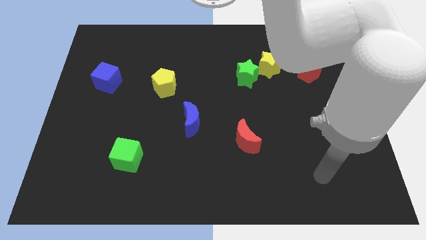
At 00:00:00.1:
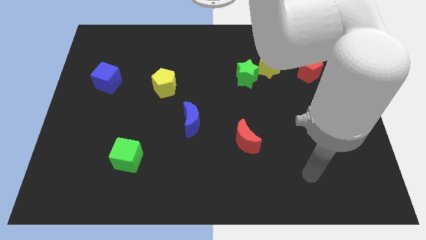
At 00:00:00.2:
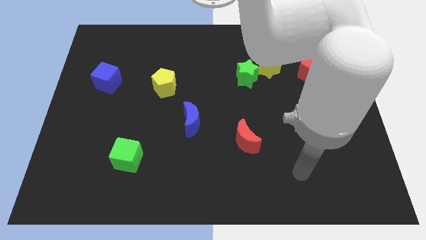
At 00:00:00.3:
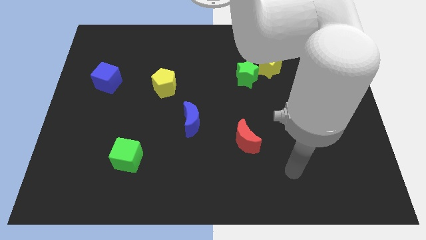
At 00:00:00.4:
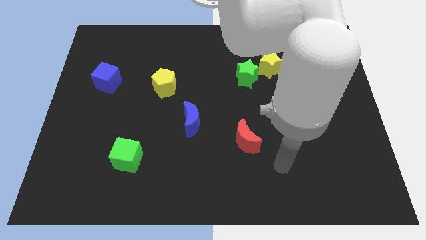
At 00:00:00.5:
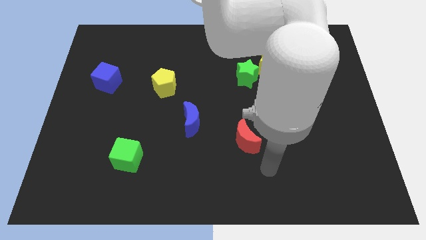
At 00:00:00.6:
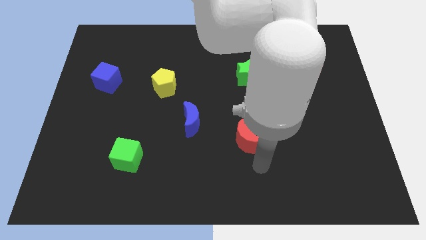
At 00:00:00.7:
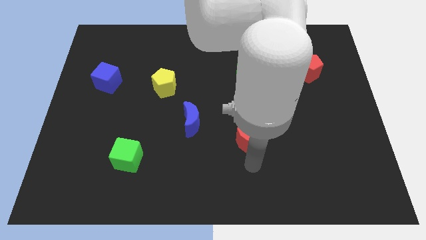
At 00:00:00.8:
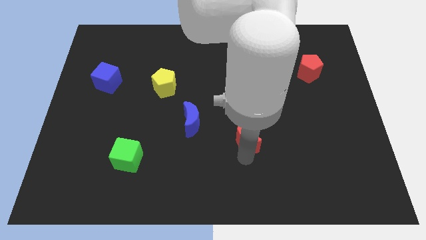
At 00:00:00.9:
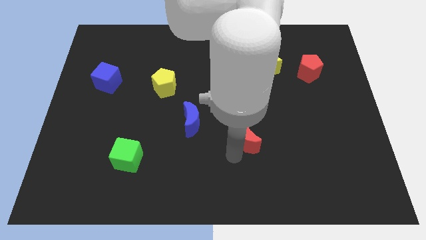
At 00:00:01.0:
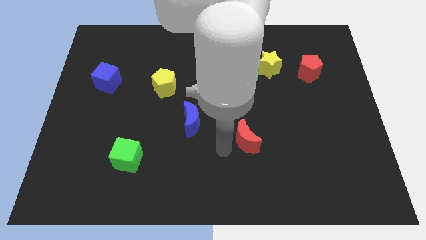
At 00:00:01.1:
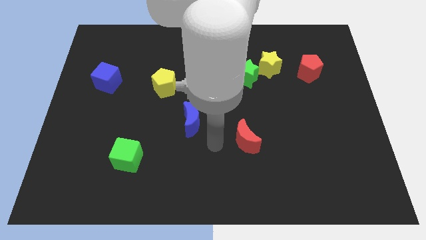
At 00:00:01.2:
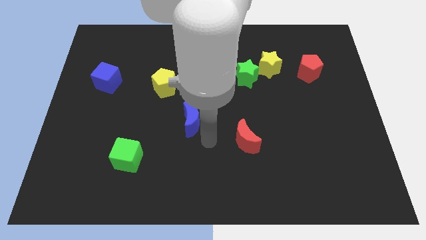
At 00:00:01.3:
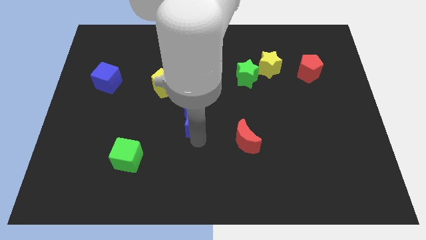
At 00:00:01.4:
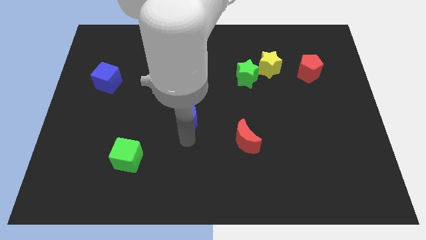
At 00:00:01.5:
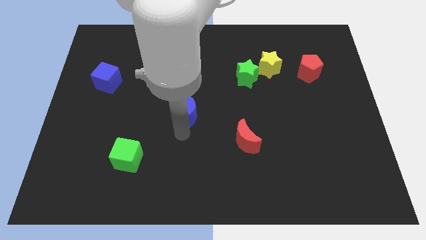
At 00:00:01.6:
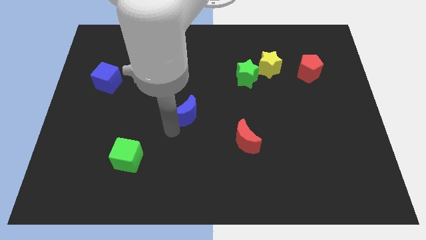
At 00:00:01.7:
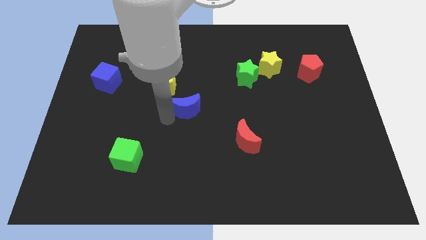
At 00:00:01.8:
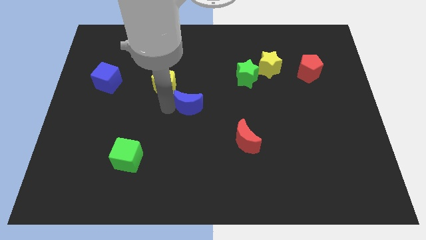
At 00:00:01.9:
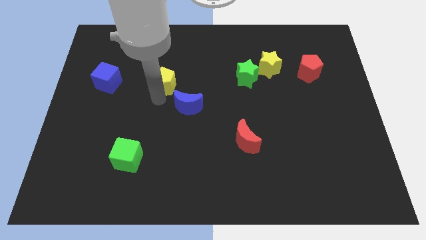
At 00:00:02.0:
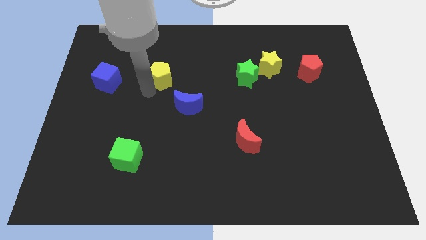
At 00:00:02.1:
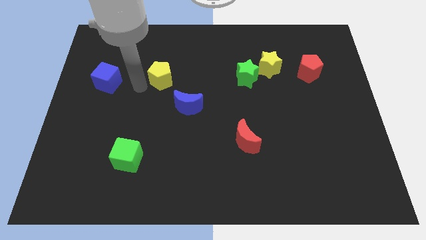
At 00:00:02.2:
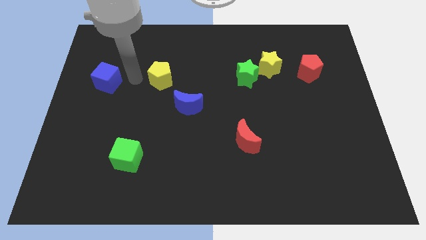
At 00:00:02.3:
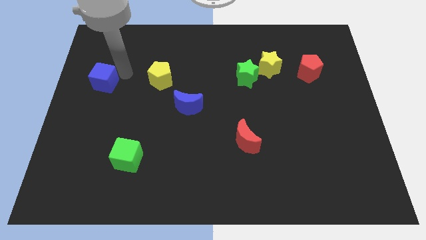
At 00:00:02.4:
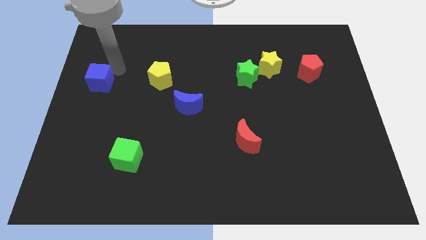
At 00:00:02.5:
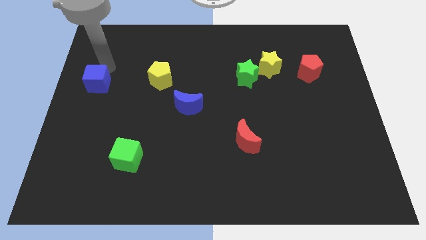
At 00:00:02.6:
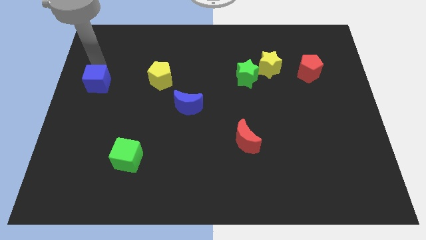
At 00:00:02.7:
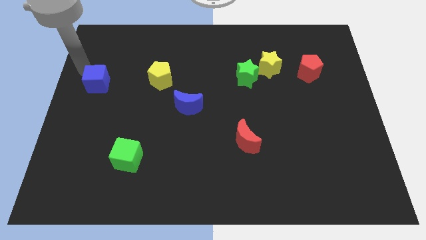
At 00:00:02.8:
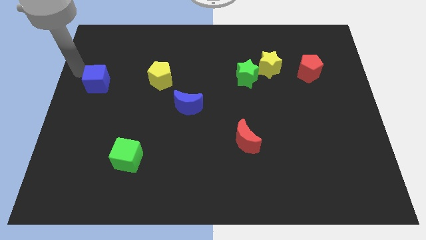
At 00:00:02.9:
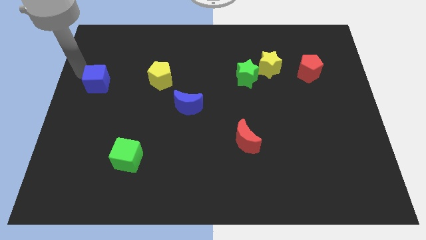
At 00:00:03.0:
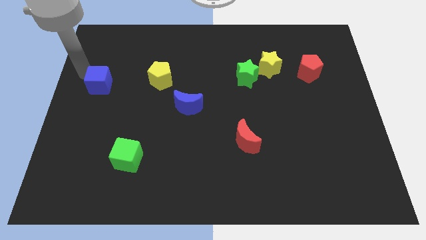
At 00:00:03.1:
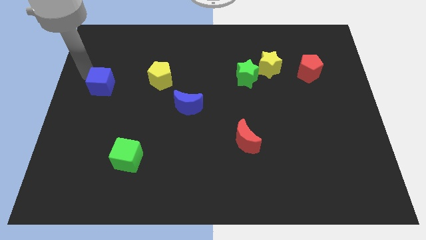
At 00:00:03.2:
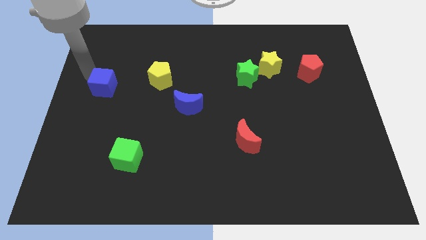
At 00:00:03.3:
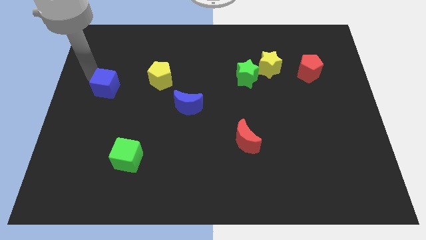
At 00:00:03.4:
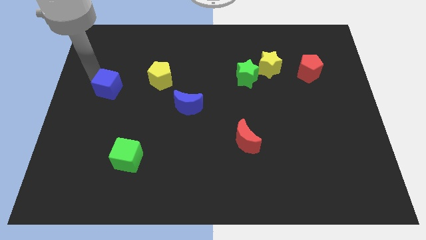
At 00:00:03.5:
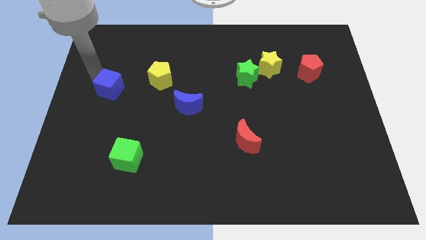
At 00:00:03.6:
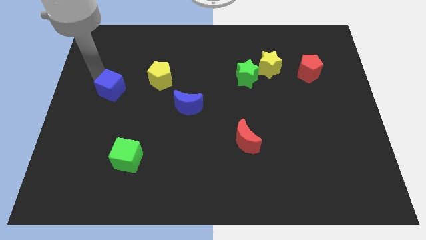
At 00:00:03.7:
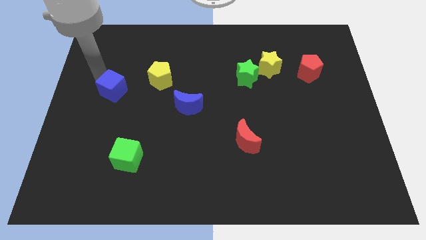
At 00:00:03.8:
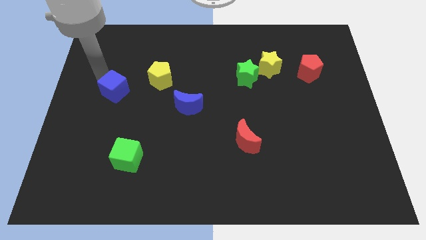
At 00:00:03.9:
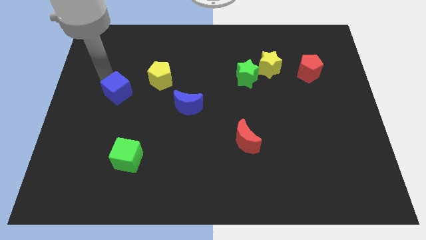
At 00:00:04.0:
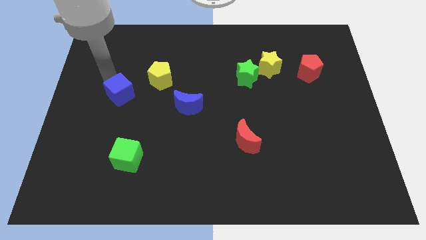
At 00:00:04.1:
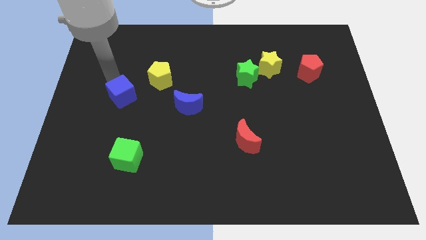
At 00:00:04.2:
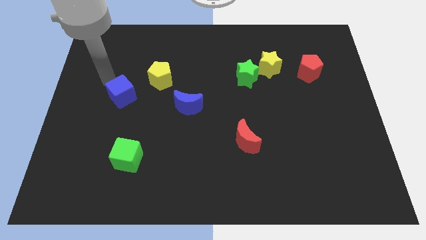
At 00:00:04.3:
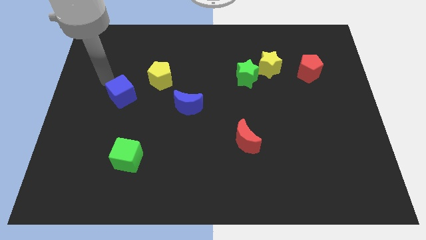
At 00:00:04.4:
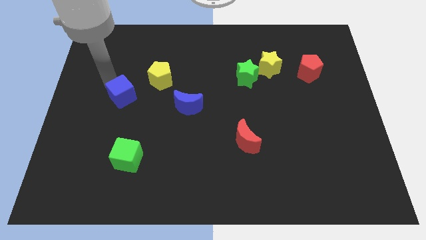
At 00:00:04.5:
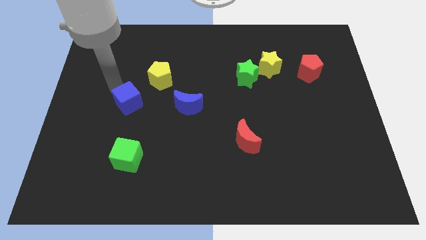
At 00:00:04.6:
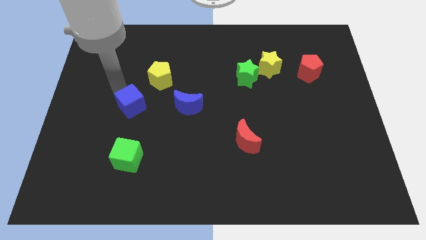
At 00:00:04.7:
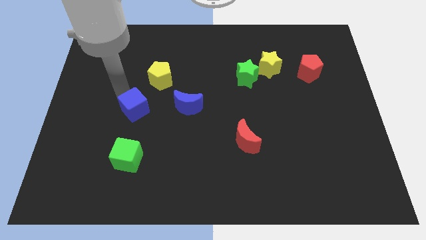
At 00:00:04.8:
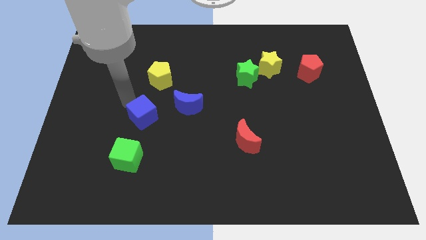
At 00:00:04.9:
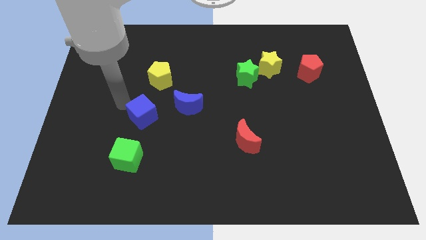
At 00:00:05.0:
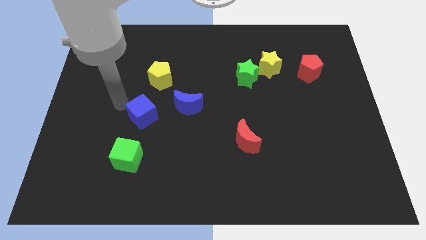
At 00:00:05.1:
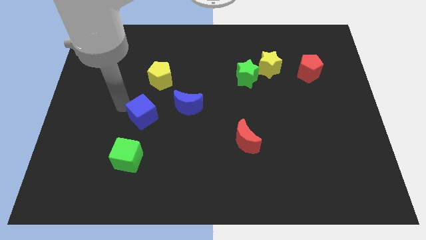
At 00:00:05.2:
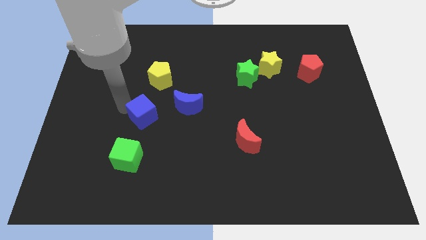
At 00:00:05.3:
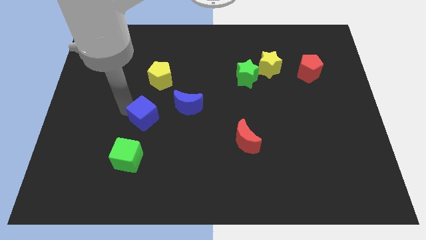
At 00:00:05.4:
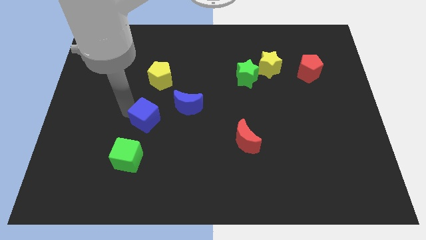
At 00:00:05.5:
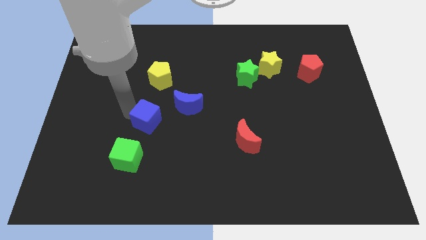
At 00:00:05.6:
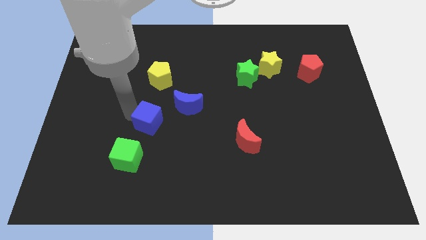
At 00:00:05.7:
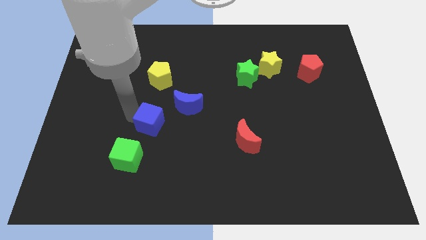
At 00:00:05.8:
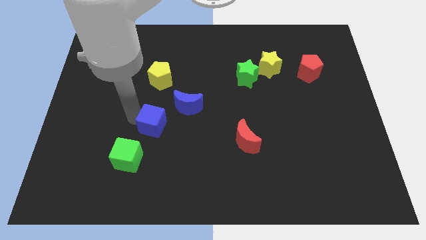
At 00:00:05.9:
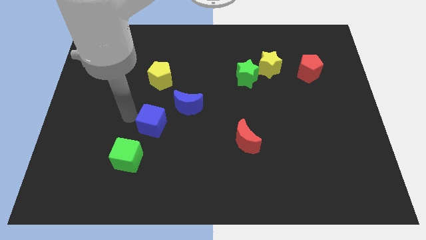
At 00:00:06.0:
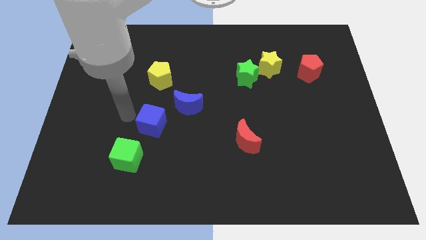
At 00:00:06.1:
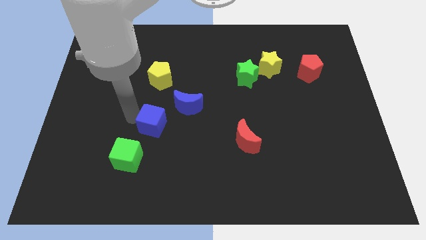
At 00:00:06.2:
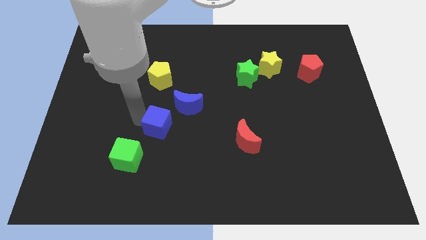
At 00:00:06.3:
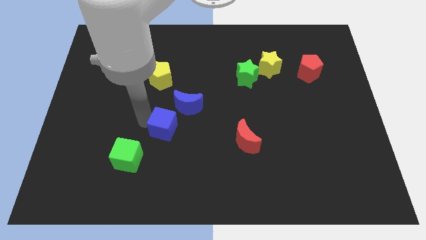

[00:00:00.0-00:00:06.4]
push the blue cube downwards and then right

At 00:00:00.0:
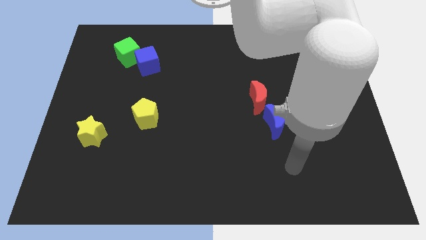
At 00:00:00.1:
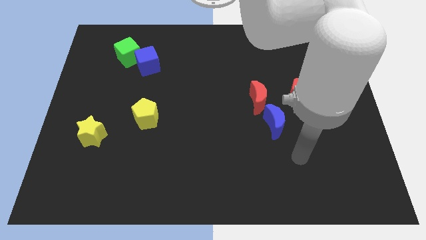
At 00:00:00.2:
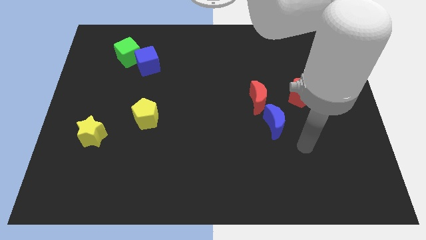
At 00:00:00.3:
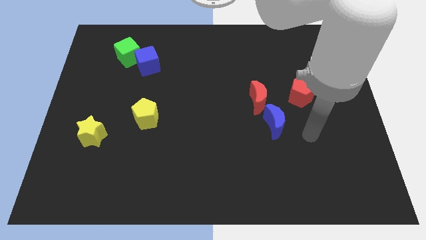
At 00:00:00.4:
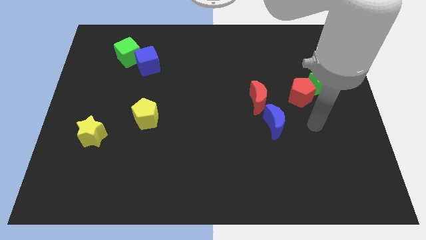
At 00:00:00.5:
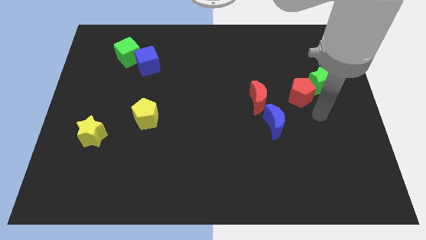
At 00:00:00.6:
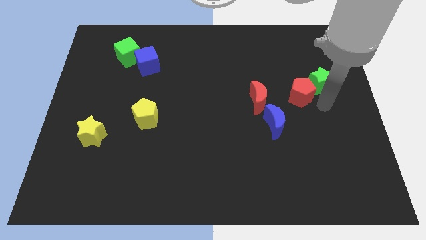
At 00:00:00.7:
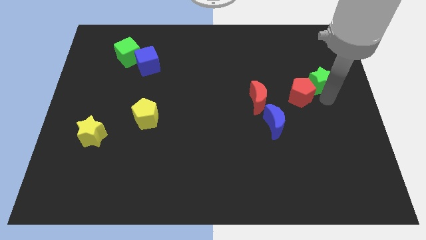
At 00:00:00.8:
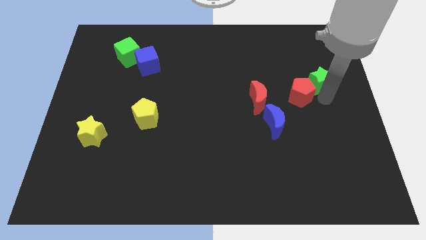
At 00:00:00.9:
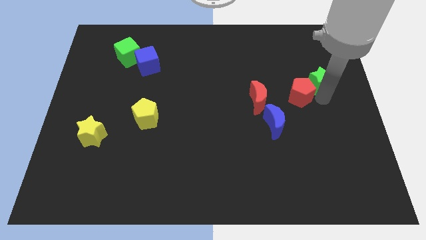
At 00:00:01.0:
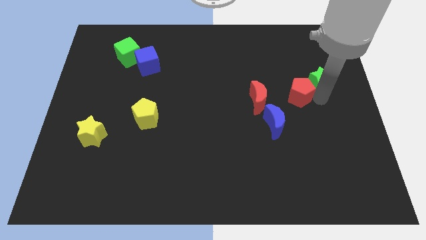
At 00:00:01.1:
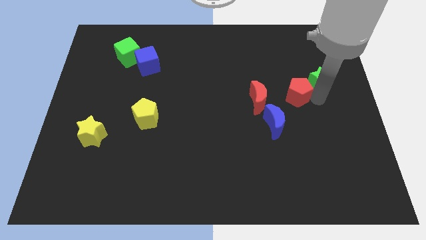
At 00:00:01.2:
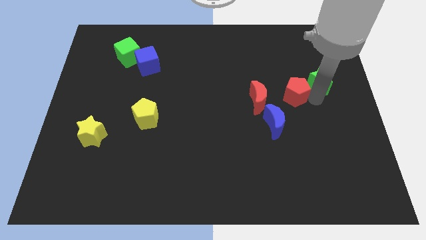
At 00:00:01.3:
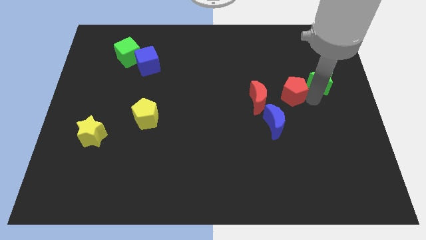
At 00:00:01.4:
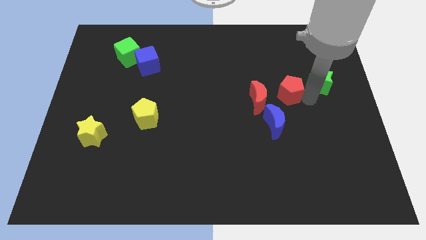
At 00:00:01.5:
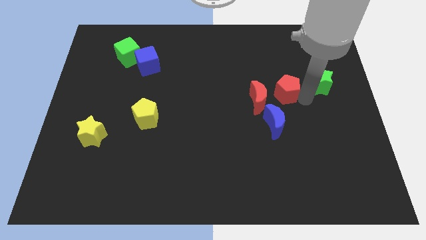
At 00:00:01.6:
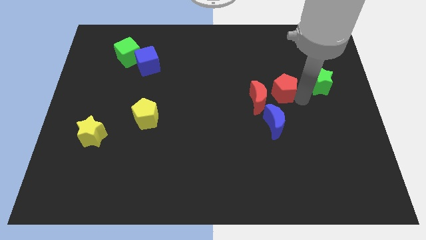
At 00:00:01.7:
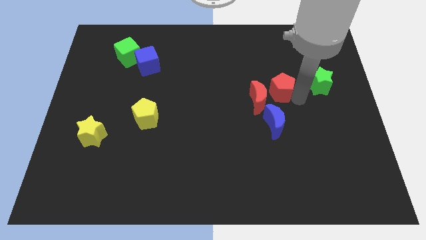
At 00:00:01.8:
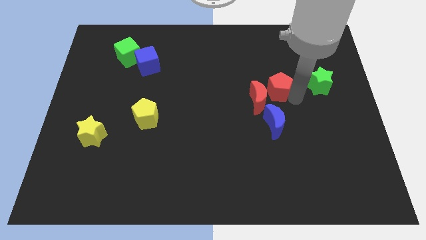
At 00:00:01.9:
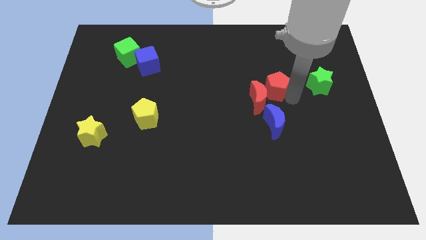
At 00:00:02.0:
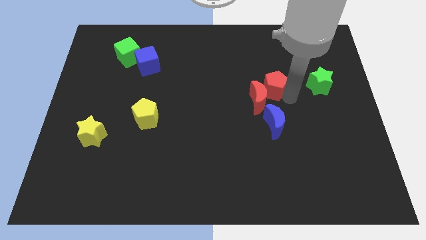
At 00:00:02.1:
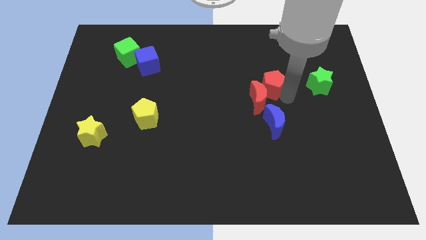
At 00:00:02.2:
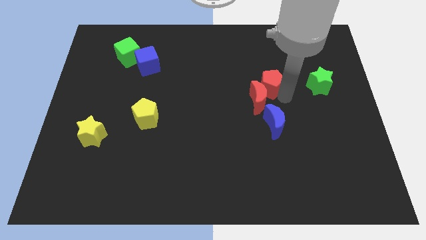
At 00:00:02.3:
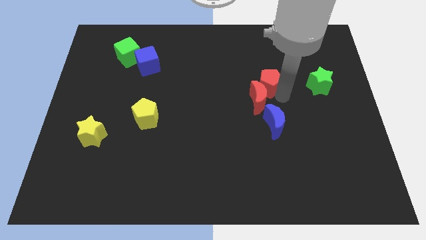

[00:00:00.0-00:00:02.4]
push the red pentagon up and to the left diagonally slightly
